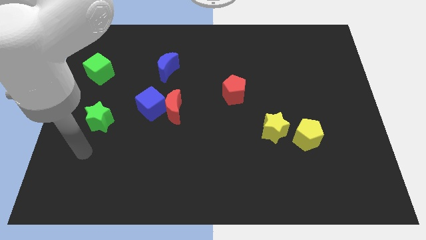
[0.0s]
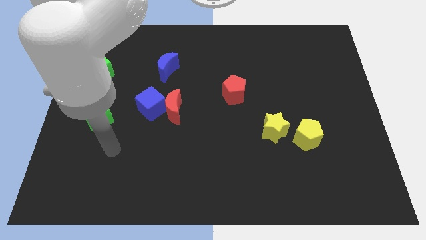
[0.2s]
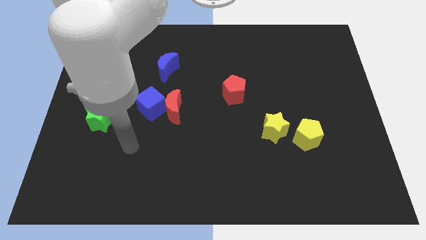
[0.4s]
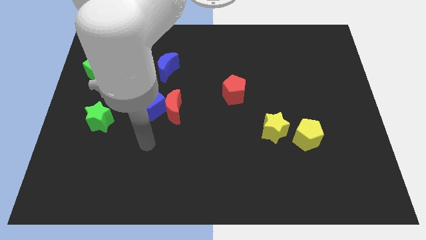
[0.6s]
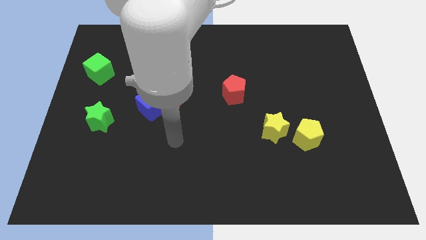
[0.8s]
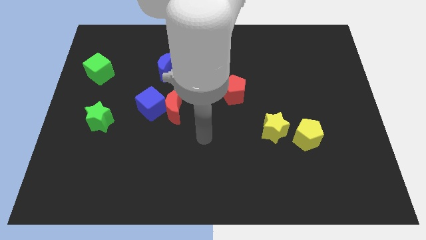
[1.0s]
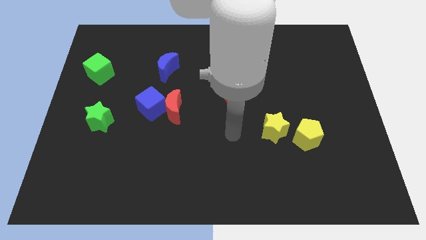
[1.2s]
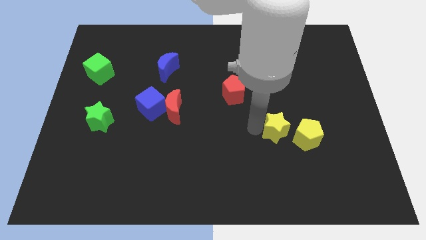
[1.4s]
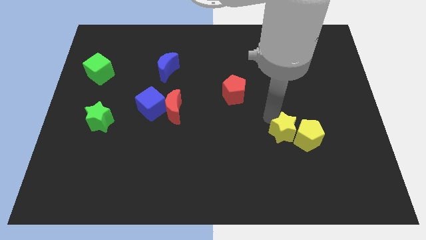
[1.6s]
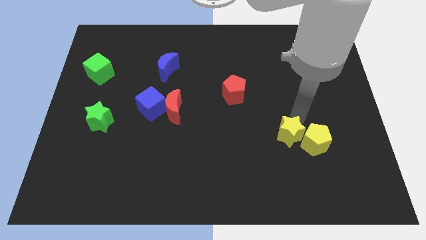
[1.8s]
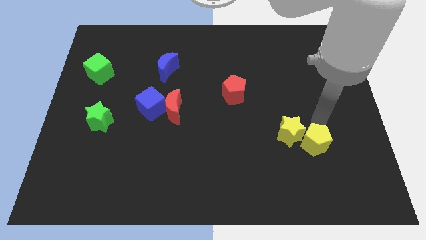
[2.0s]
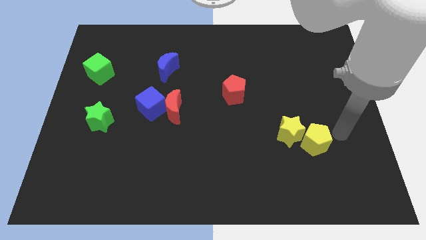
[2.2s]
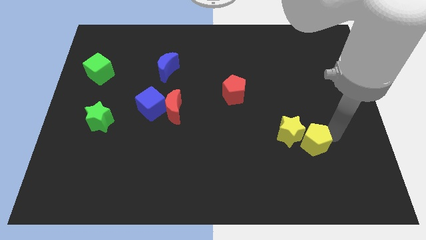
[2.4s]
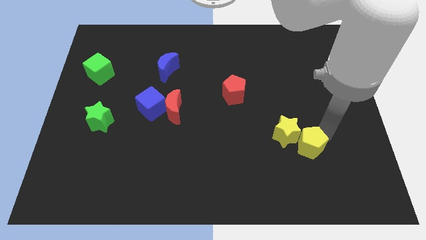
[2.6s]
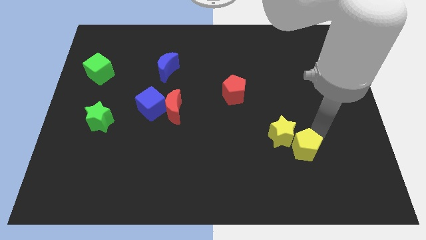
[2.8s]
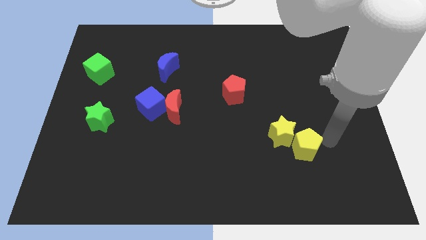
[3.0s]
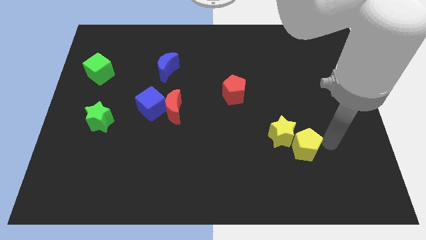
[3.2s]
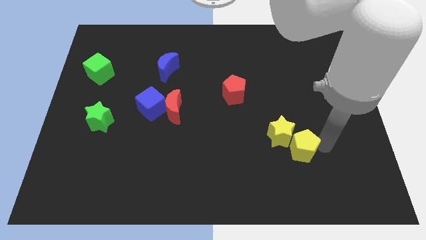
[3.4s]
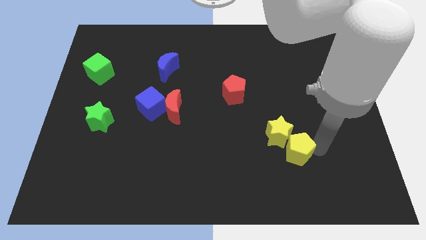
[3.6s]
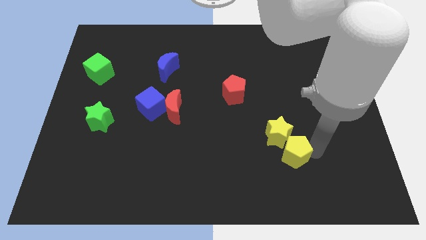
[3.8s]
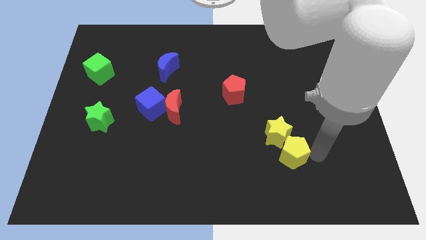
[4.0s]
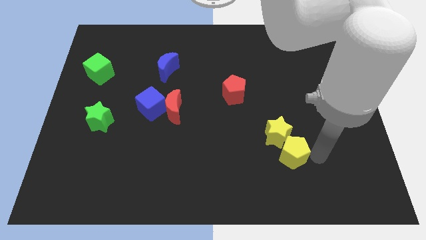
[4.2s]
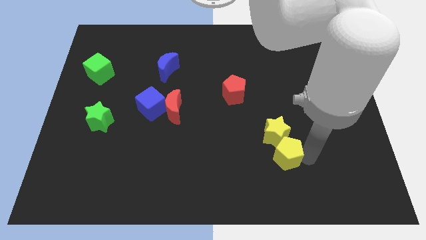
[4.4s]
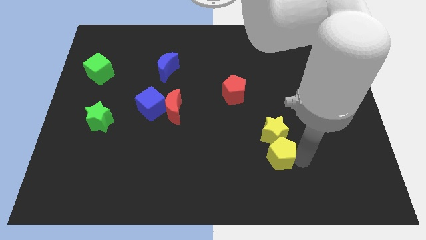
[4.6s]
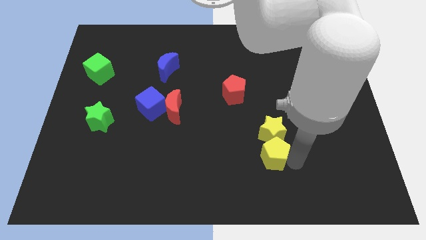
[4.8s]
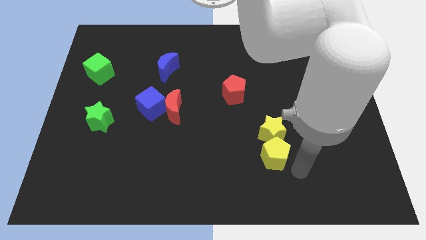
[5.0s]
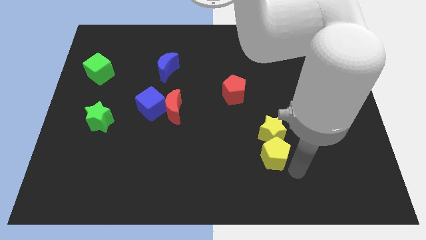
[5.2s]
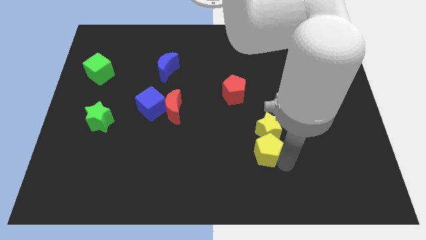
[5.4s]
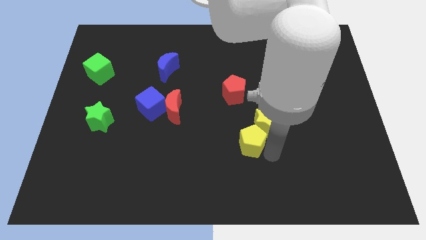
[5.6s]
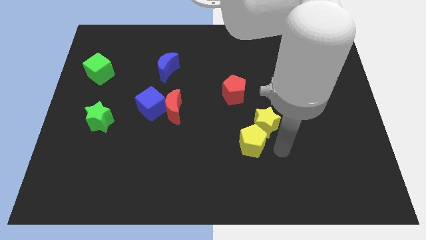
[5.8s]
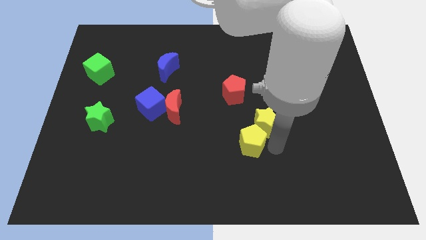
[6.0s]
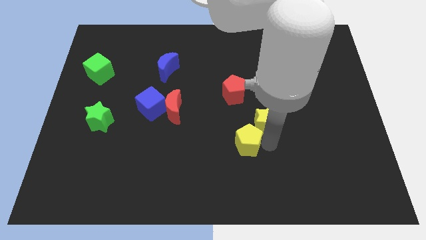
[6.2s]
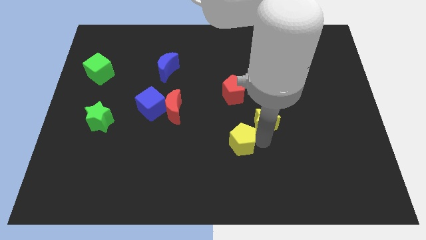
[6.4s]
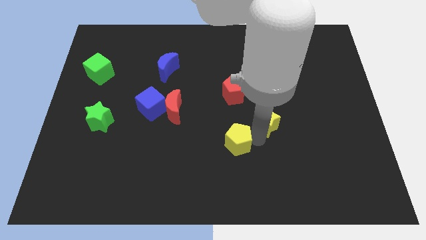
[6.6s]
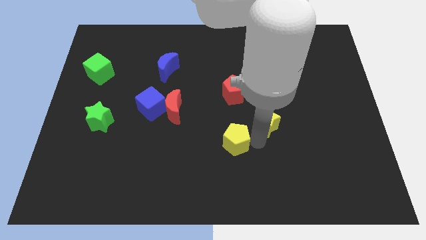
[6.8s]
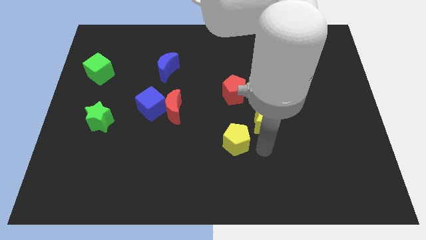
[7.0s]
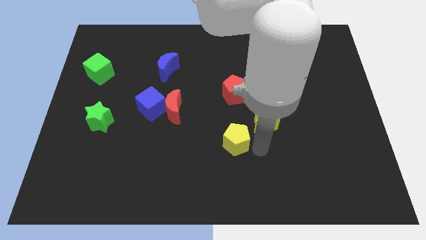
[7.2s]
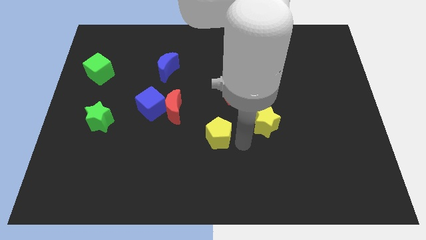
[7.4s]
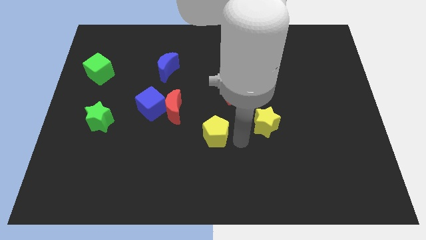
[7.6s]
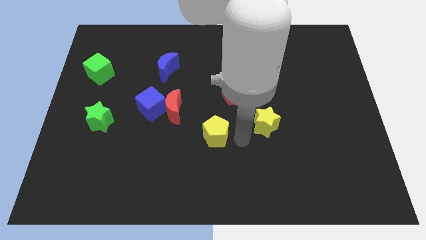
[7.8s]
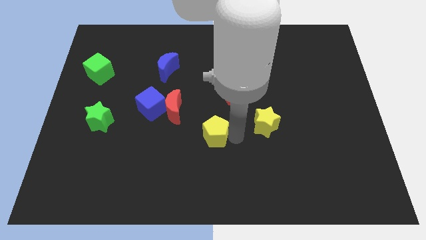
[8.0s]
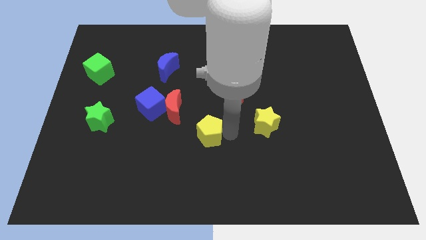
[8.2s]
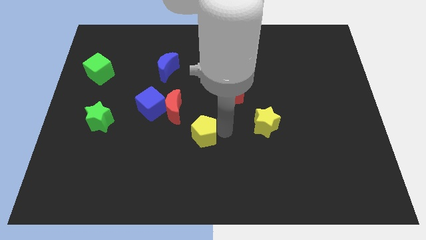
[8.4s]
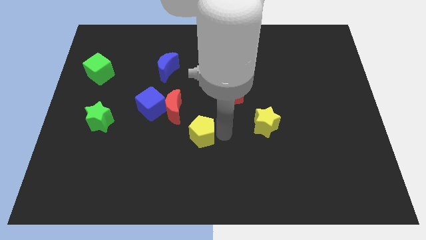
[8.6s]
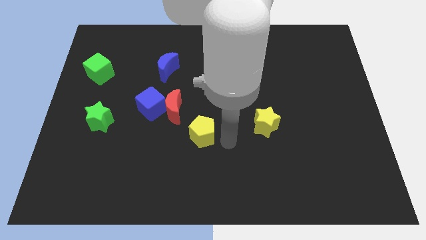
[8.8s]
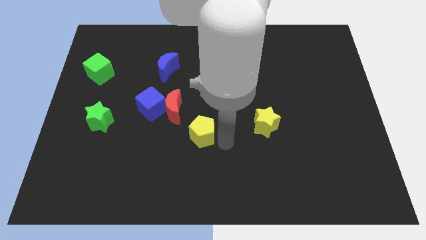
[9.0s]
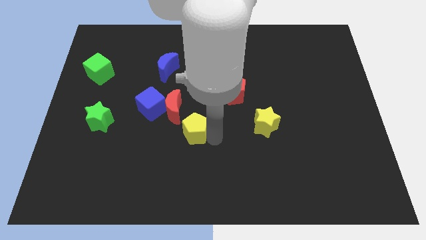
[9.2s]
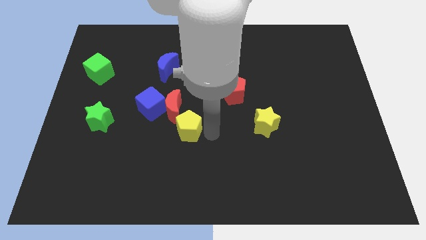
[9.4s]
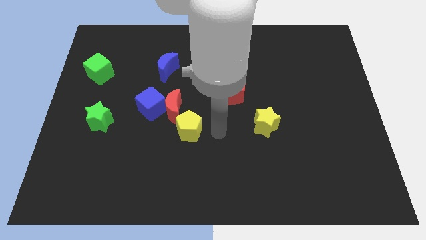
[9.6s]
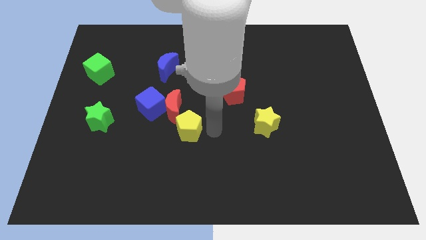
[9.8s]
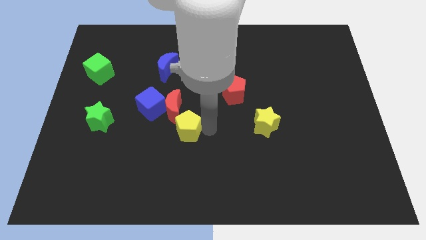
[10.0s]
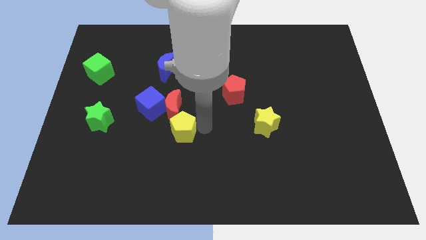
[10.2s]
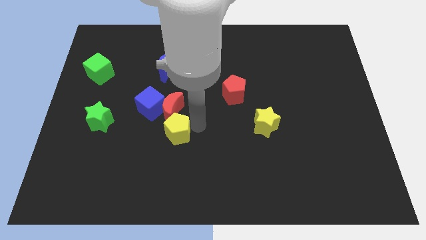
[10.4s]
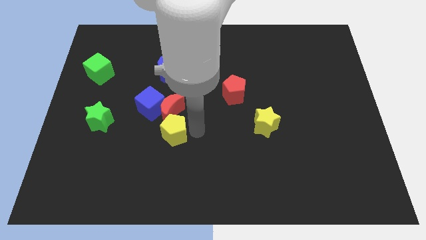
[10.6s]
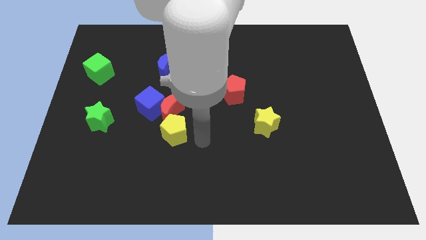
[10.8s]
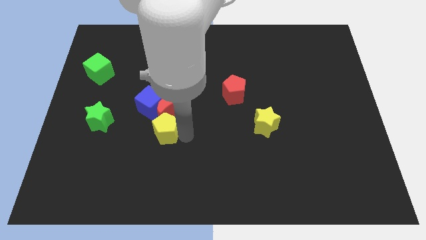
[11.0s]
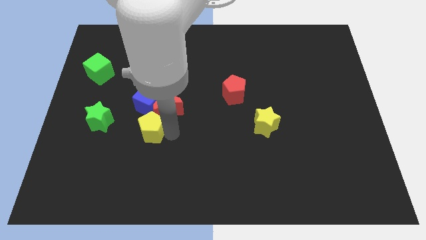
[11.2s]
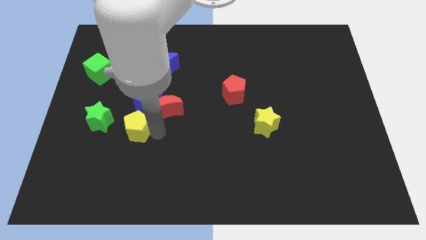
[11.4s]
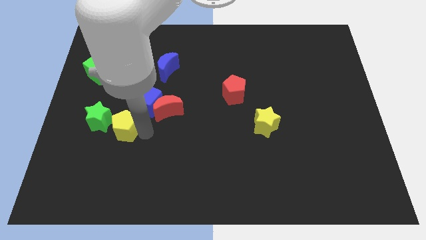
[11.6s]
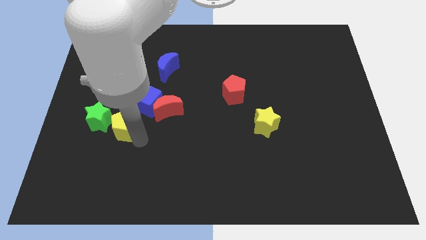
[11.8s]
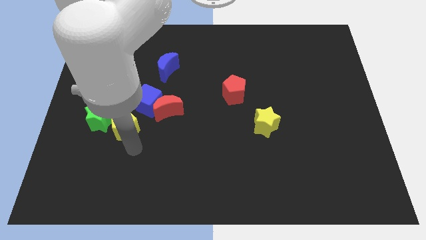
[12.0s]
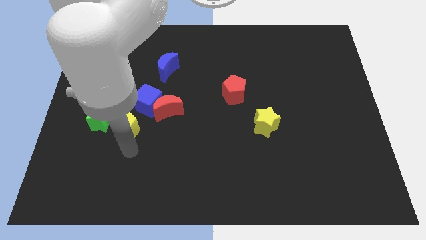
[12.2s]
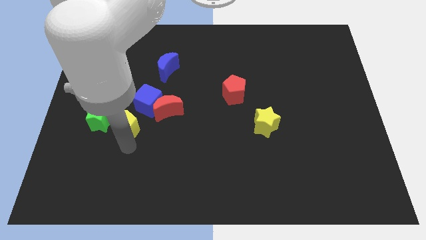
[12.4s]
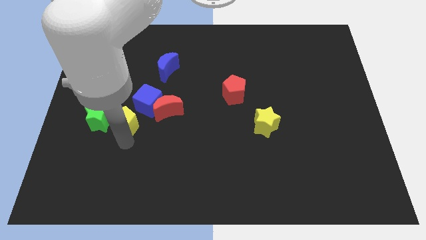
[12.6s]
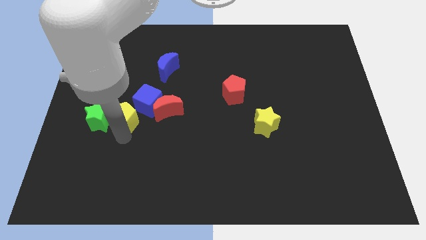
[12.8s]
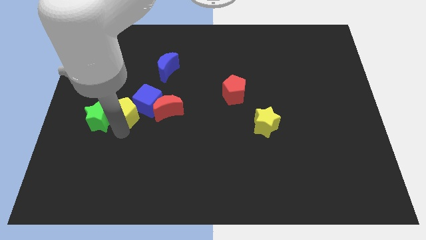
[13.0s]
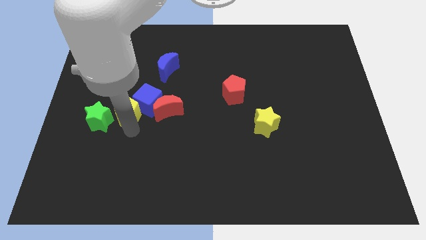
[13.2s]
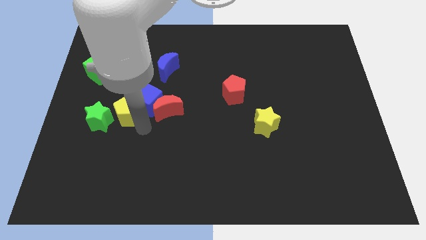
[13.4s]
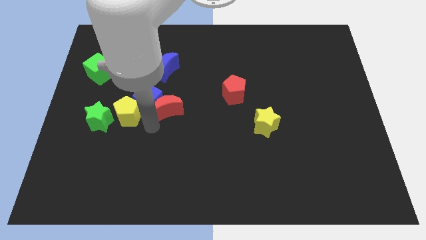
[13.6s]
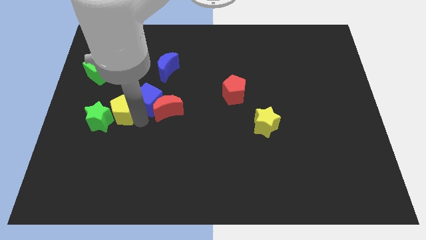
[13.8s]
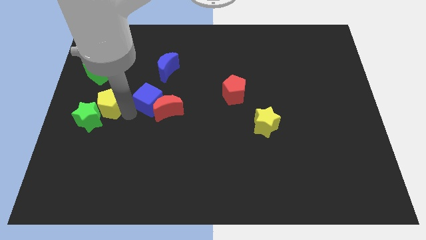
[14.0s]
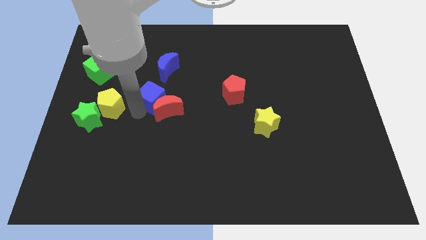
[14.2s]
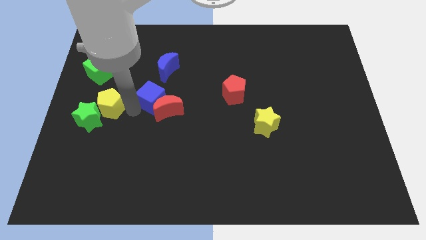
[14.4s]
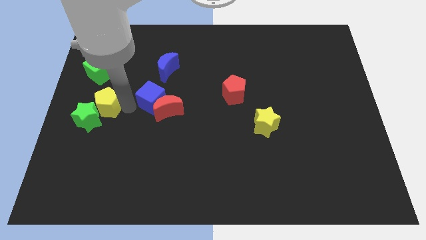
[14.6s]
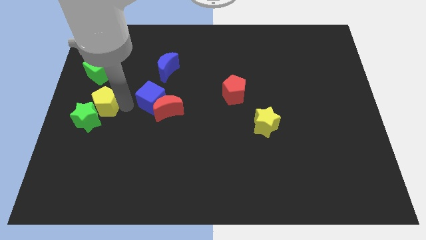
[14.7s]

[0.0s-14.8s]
move the yellow pentagon to the center left

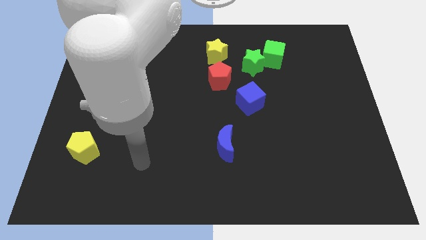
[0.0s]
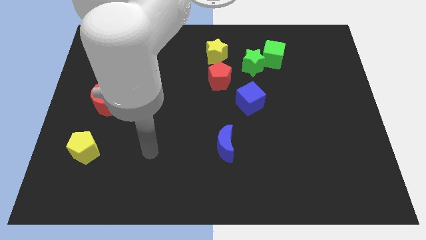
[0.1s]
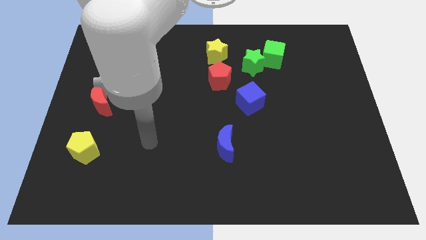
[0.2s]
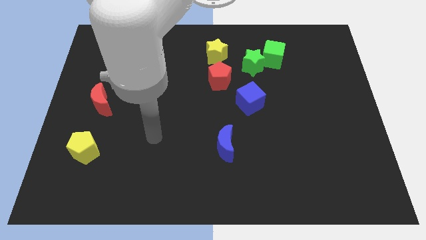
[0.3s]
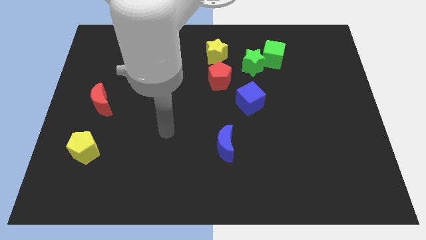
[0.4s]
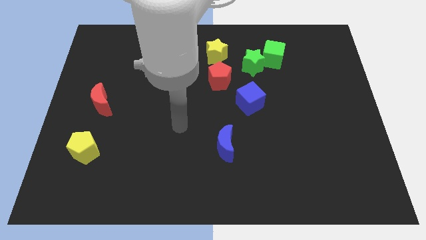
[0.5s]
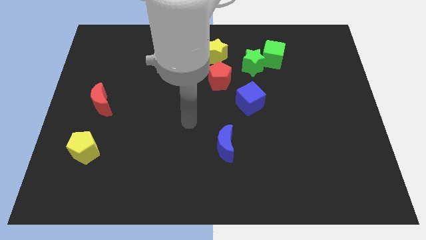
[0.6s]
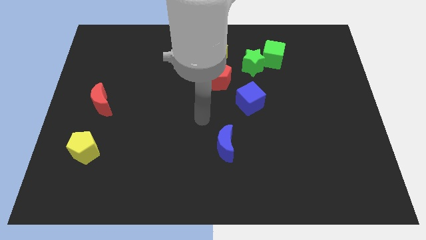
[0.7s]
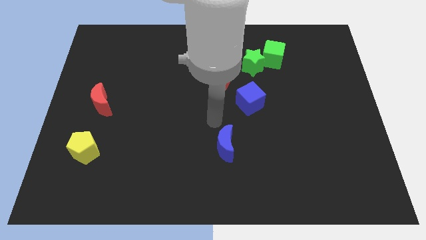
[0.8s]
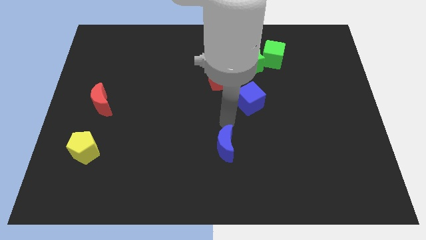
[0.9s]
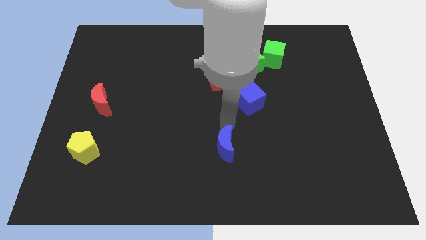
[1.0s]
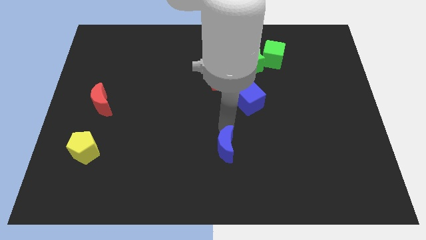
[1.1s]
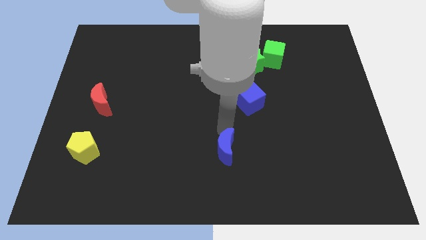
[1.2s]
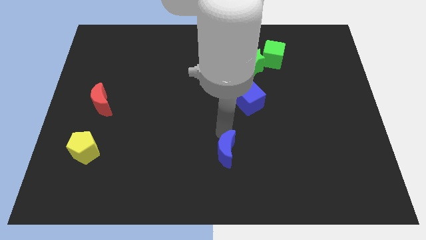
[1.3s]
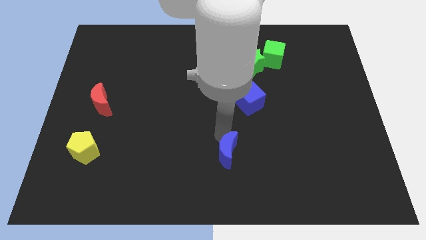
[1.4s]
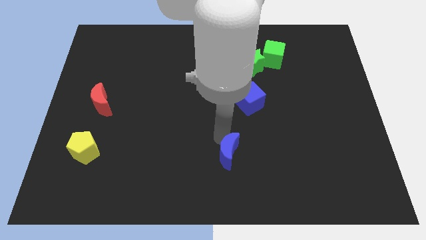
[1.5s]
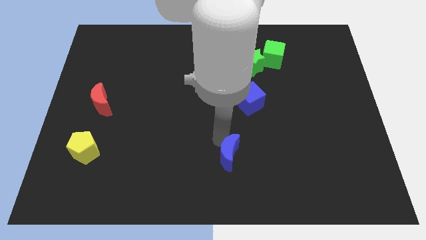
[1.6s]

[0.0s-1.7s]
put the blue moon to the bottom
